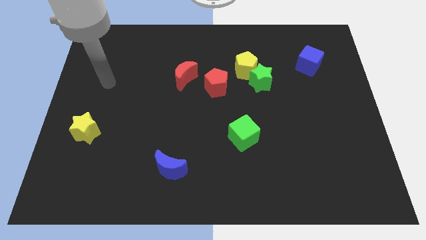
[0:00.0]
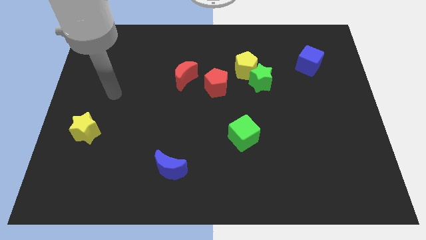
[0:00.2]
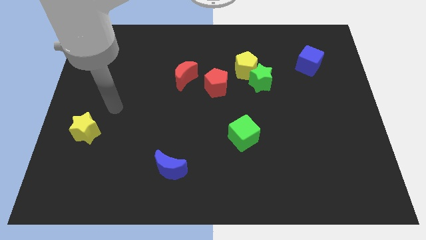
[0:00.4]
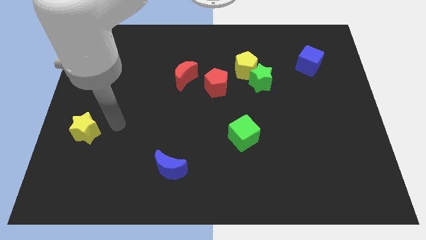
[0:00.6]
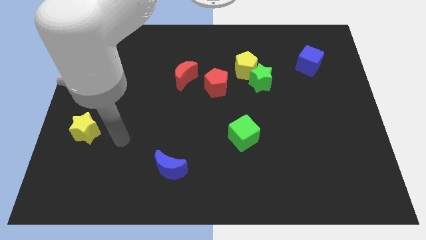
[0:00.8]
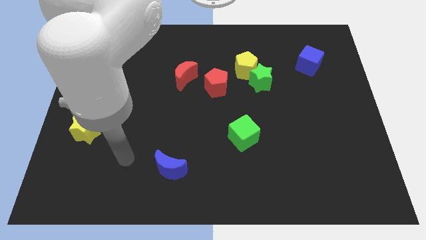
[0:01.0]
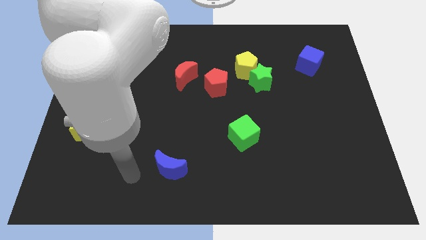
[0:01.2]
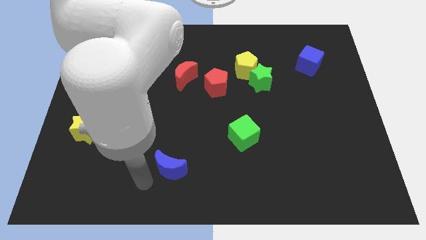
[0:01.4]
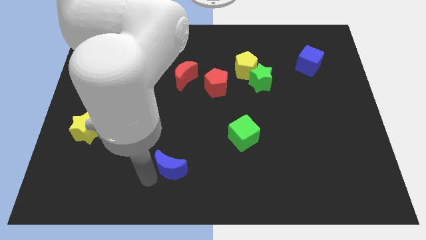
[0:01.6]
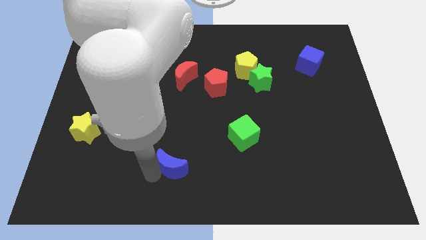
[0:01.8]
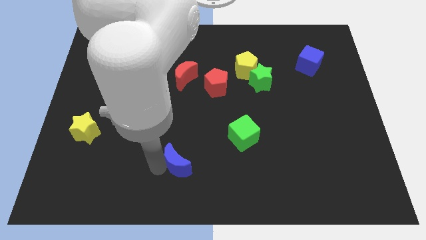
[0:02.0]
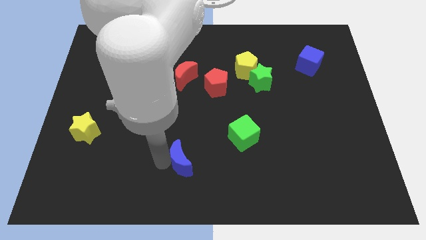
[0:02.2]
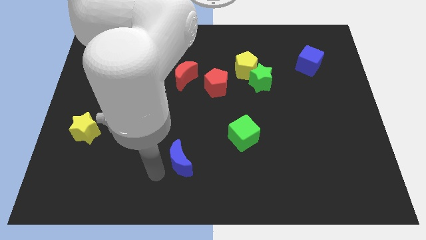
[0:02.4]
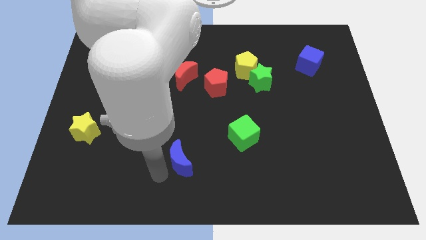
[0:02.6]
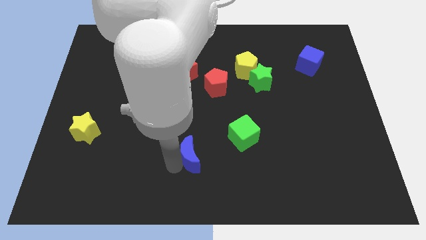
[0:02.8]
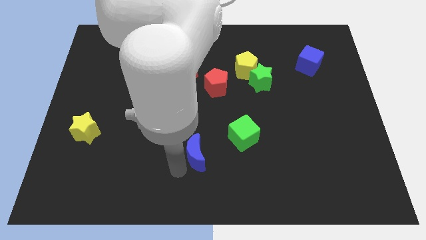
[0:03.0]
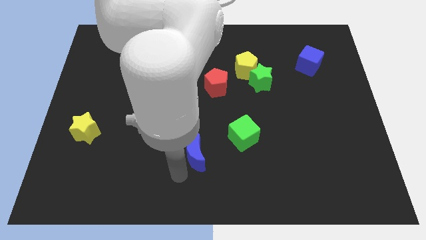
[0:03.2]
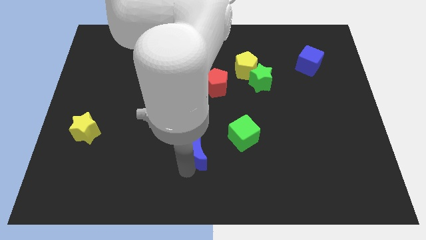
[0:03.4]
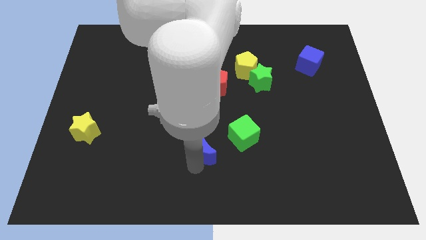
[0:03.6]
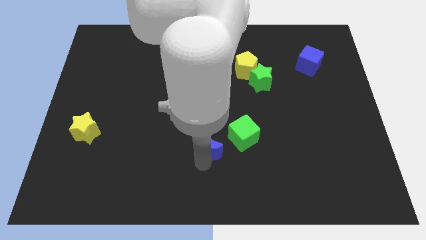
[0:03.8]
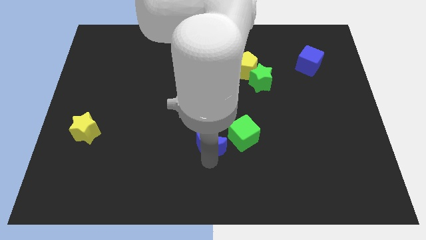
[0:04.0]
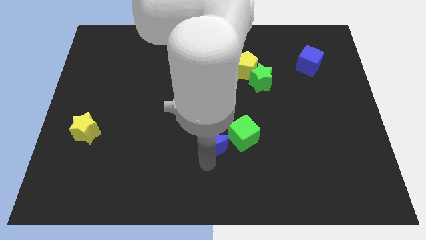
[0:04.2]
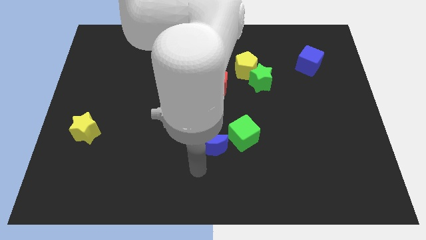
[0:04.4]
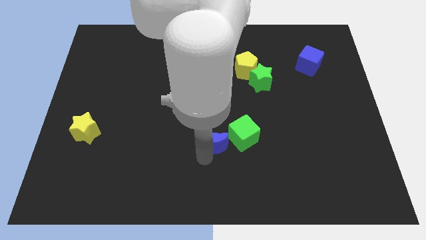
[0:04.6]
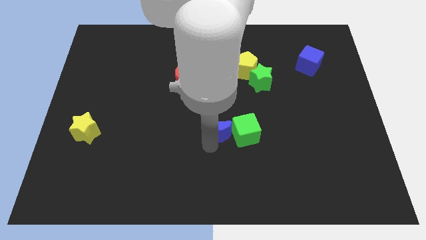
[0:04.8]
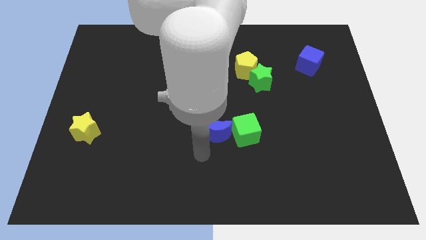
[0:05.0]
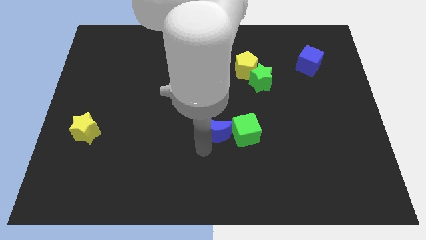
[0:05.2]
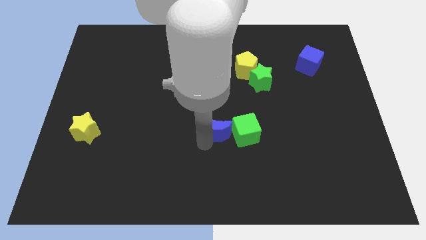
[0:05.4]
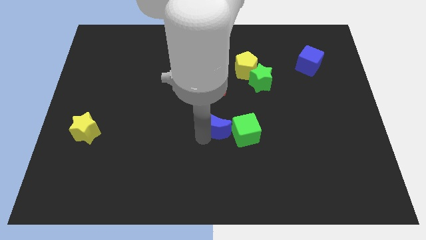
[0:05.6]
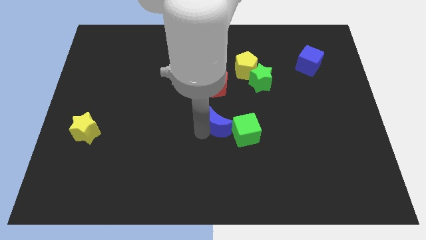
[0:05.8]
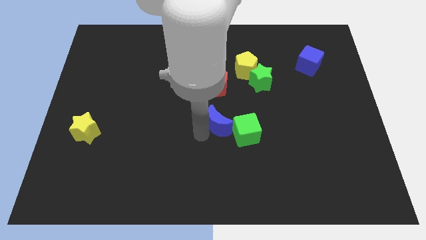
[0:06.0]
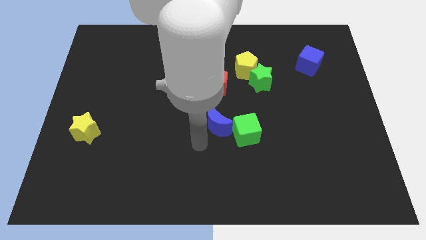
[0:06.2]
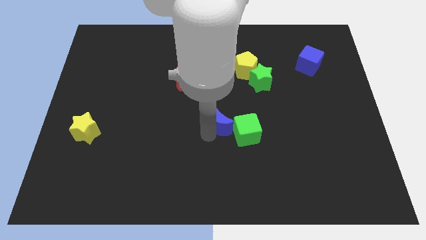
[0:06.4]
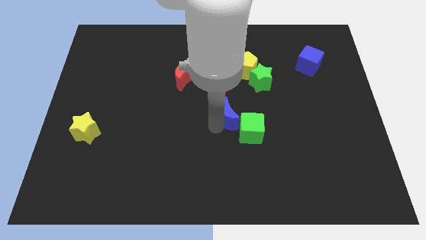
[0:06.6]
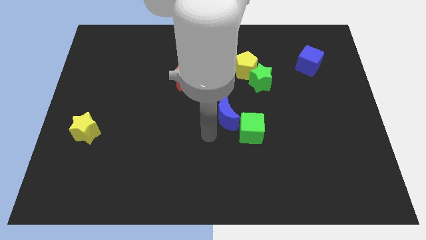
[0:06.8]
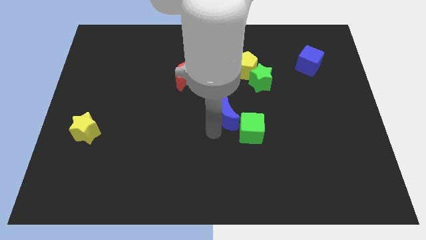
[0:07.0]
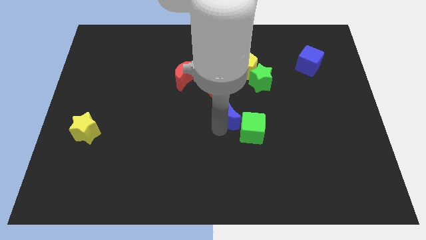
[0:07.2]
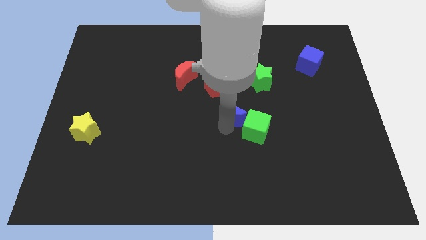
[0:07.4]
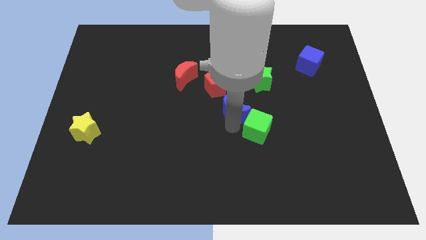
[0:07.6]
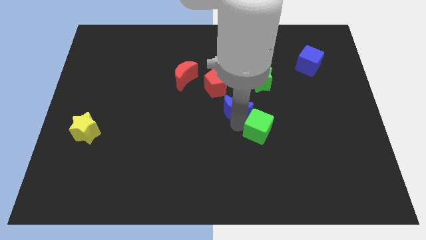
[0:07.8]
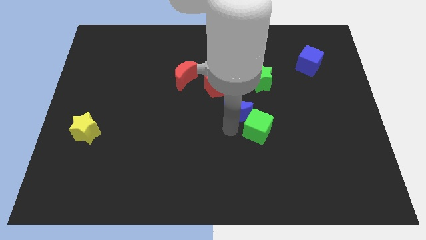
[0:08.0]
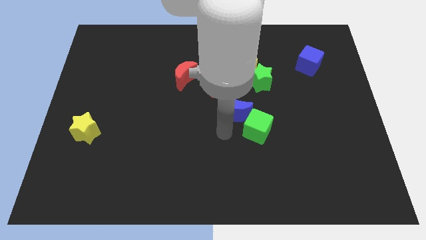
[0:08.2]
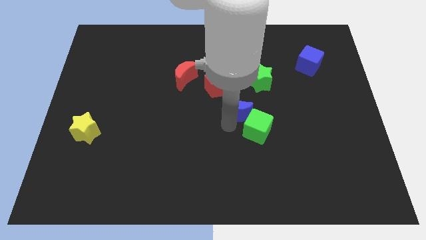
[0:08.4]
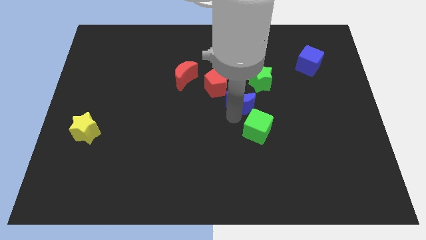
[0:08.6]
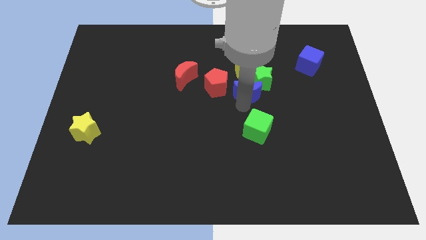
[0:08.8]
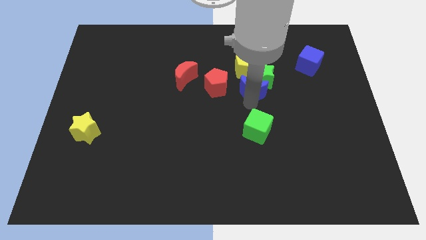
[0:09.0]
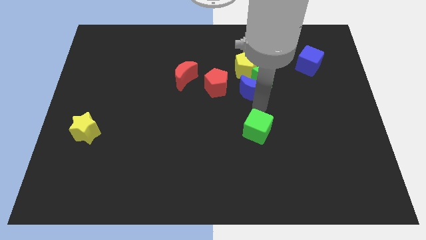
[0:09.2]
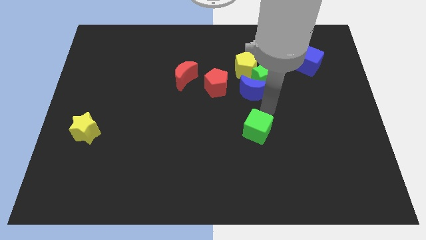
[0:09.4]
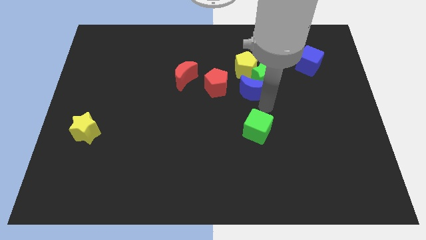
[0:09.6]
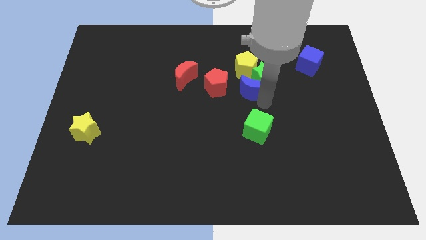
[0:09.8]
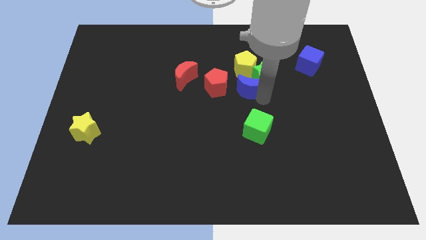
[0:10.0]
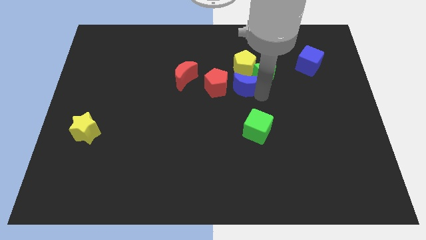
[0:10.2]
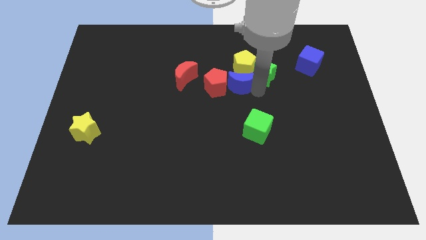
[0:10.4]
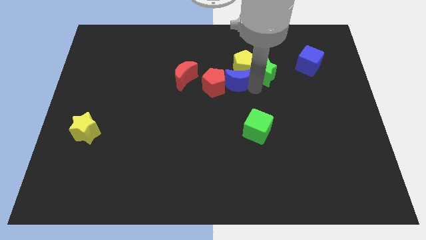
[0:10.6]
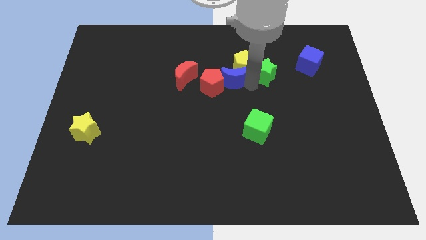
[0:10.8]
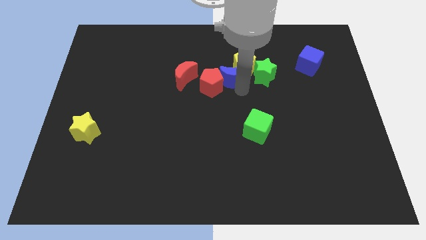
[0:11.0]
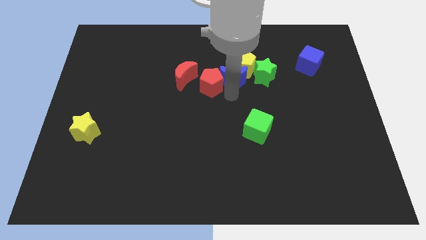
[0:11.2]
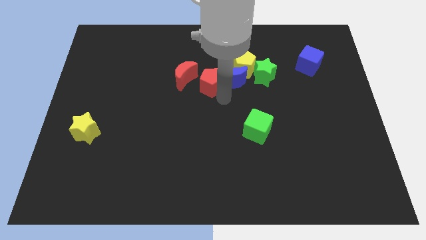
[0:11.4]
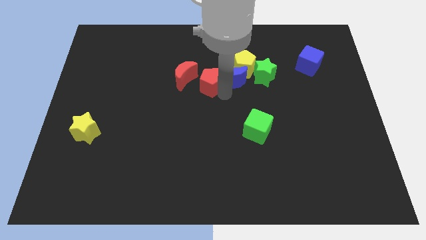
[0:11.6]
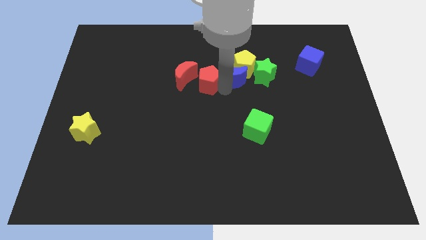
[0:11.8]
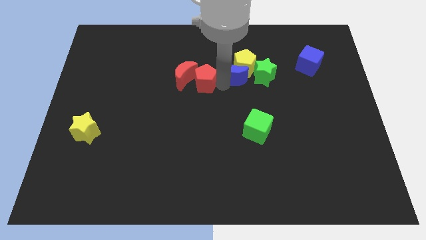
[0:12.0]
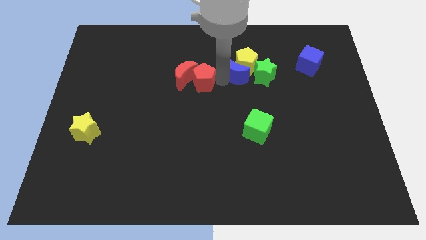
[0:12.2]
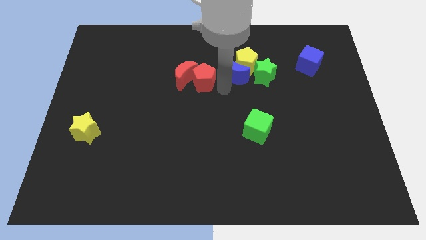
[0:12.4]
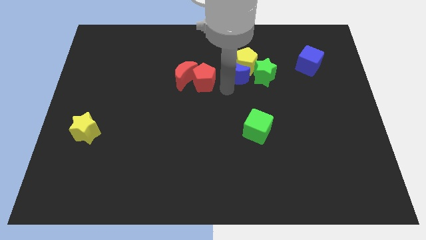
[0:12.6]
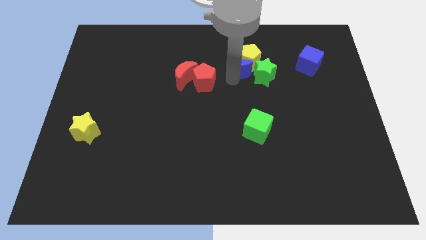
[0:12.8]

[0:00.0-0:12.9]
slide the blue moon to the top left of the green star
